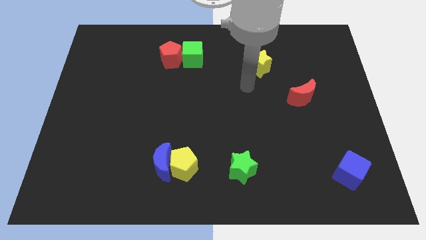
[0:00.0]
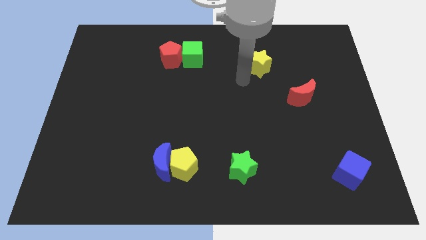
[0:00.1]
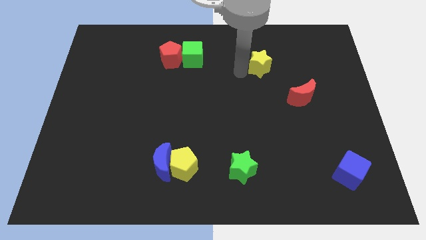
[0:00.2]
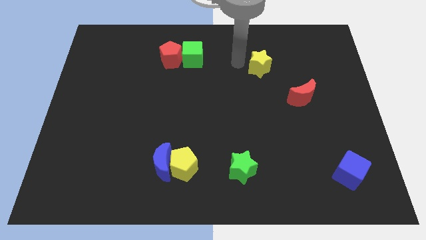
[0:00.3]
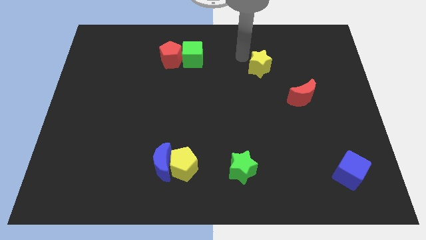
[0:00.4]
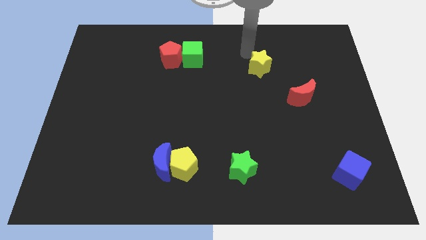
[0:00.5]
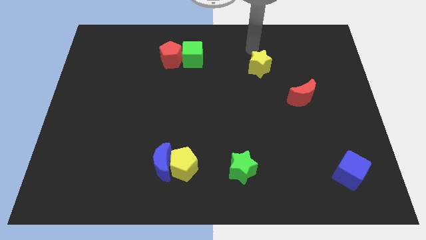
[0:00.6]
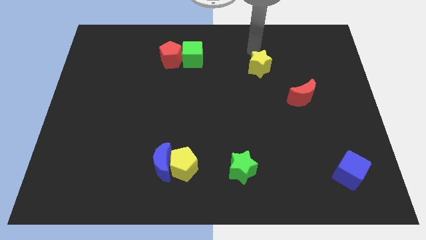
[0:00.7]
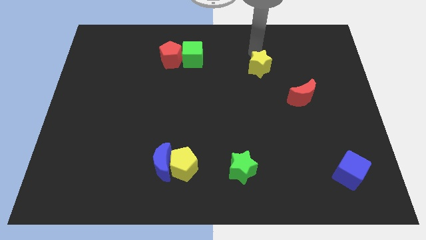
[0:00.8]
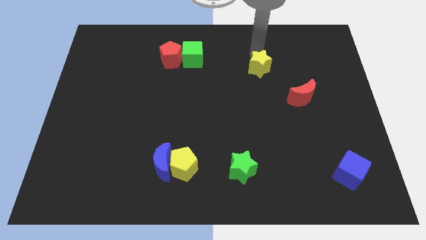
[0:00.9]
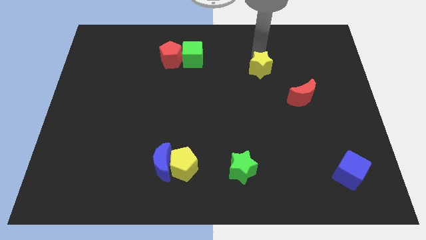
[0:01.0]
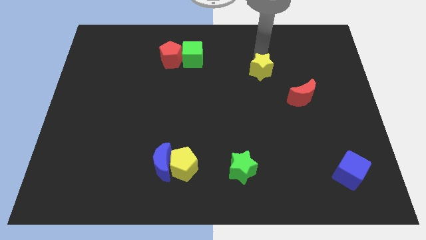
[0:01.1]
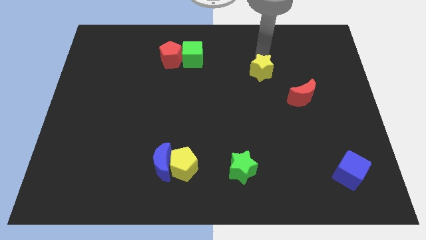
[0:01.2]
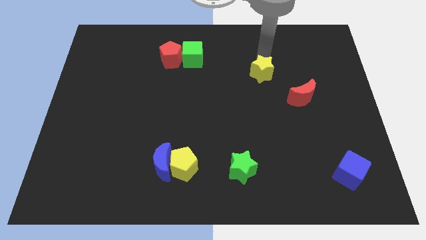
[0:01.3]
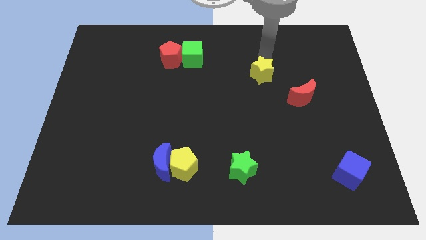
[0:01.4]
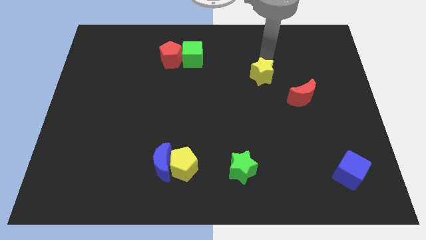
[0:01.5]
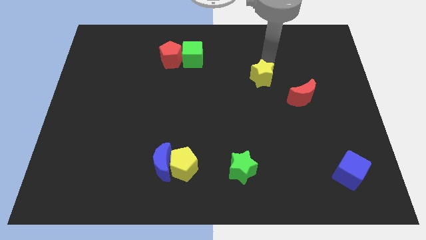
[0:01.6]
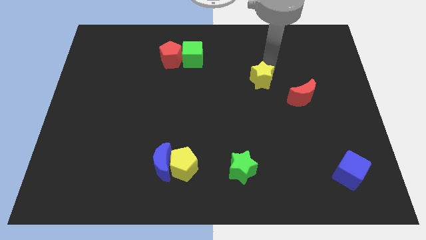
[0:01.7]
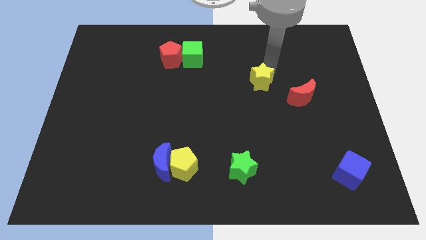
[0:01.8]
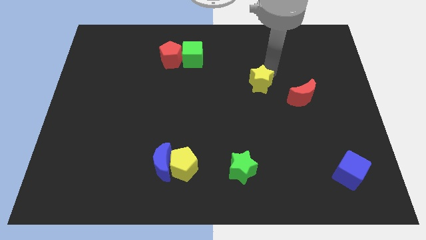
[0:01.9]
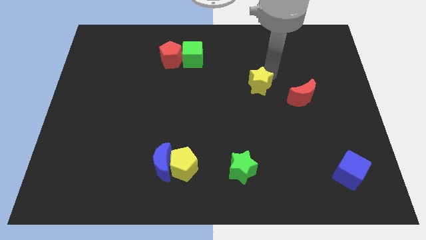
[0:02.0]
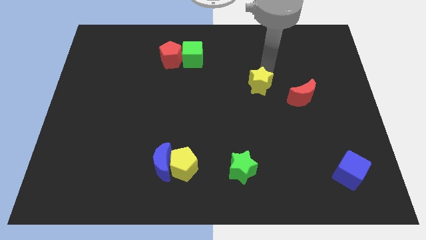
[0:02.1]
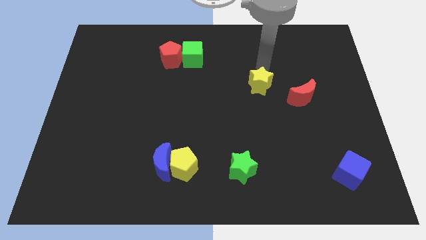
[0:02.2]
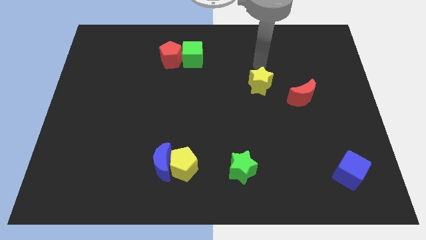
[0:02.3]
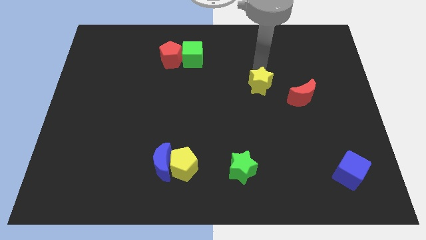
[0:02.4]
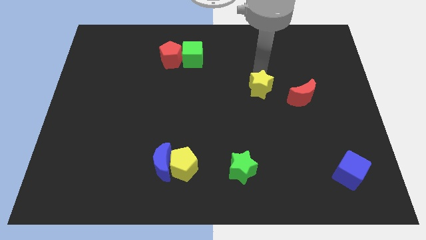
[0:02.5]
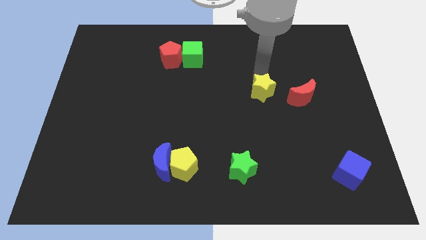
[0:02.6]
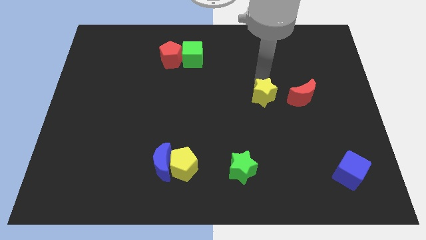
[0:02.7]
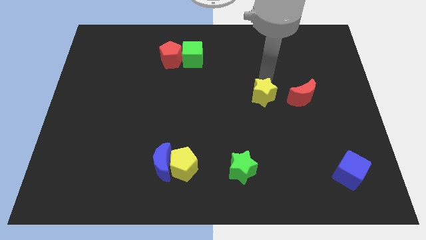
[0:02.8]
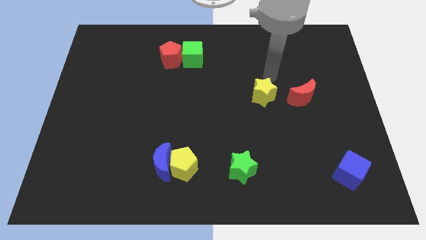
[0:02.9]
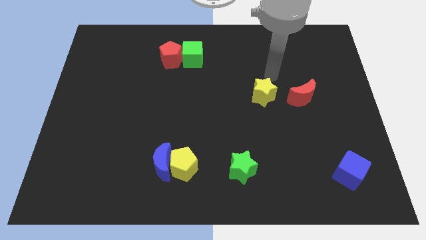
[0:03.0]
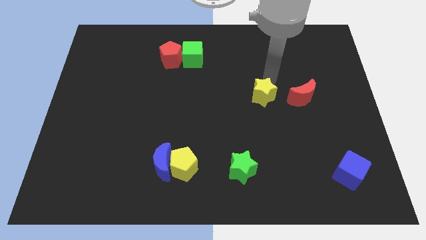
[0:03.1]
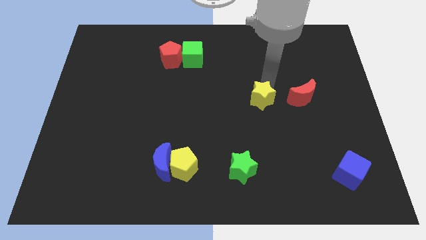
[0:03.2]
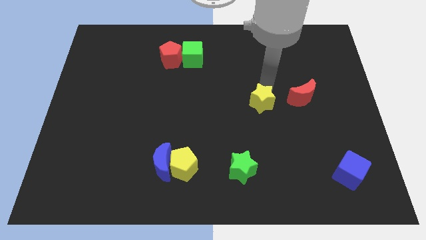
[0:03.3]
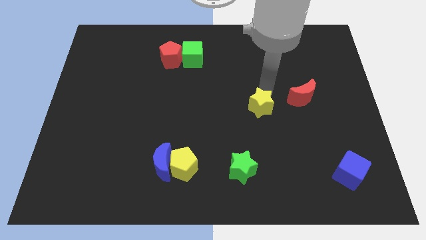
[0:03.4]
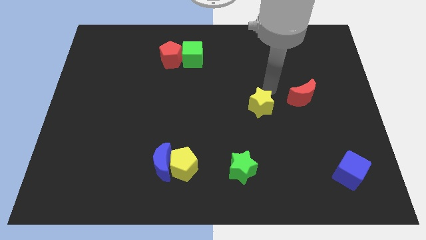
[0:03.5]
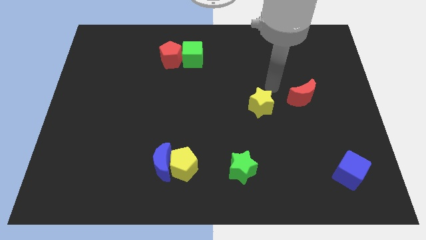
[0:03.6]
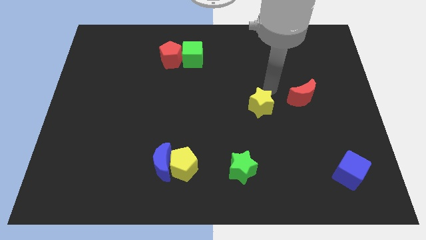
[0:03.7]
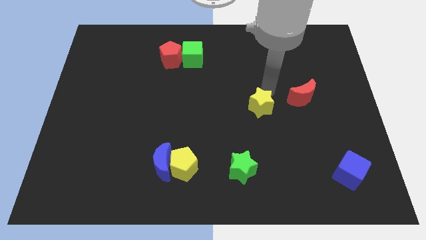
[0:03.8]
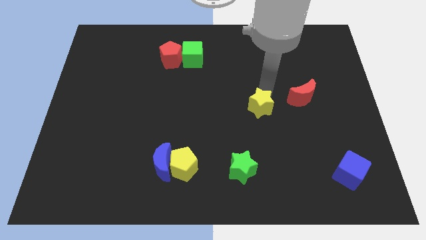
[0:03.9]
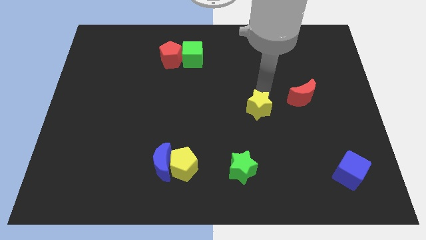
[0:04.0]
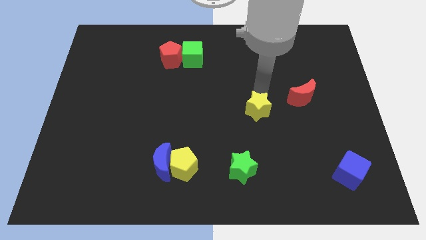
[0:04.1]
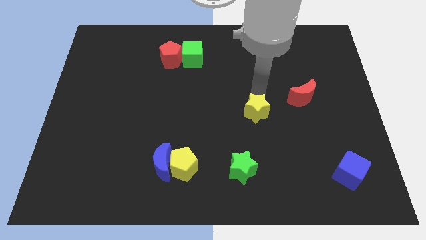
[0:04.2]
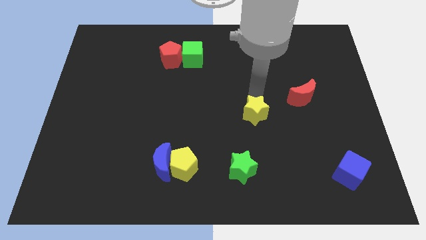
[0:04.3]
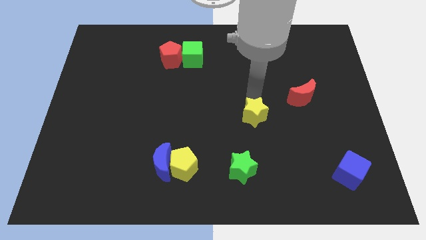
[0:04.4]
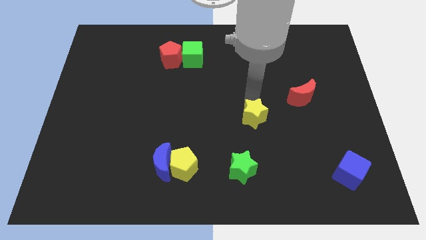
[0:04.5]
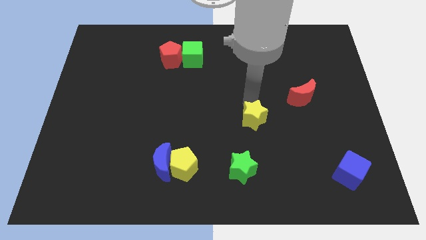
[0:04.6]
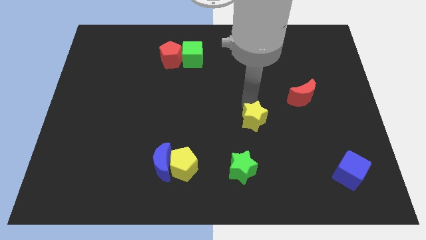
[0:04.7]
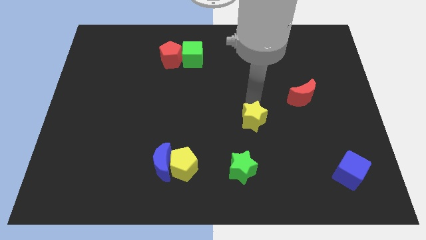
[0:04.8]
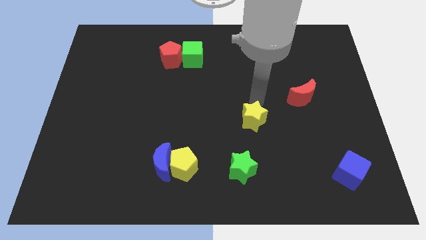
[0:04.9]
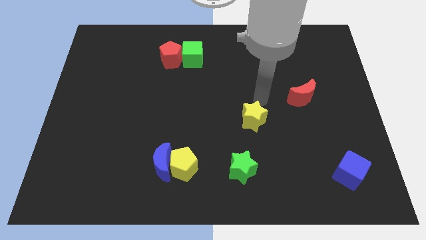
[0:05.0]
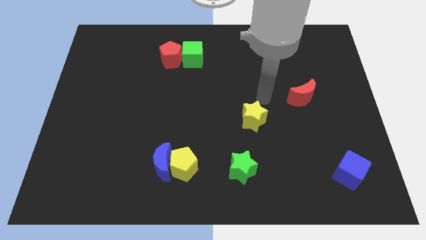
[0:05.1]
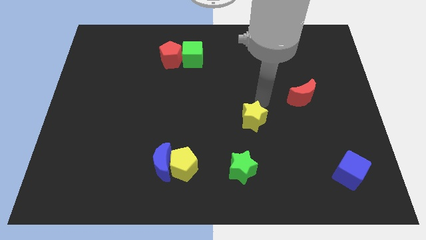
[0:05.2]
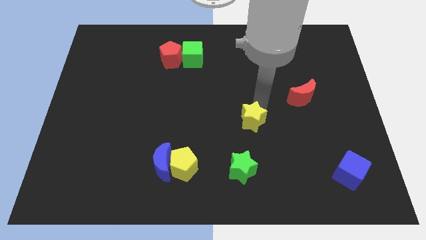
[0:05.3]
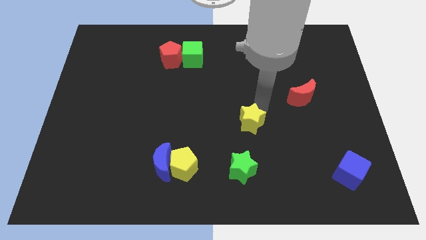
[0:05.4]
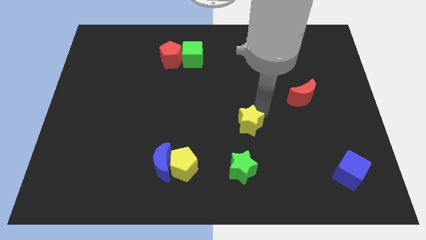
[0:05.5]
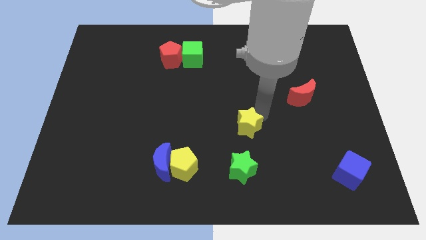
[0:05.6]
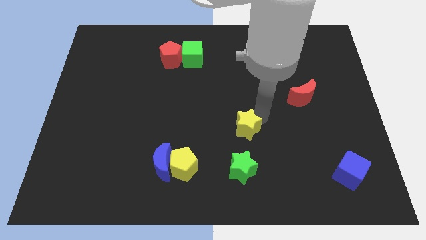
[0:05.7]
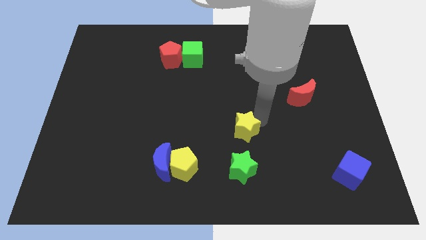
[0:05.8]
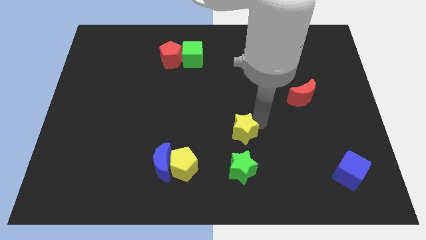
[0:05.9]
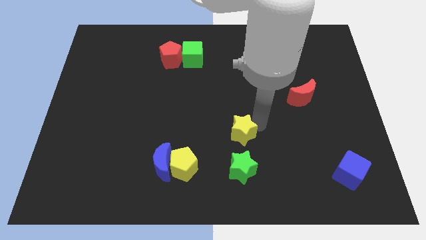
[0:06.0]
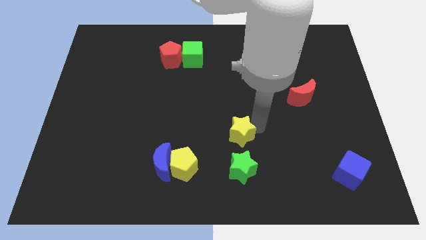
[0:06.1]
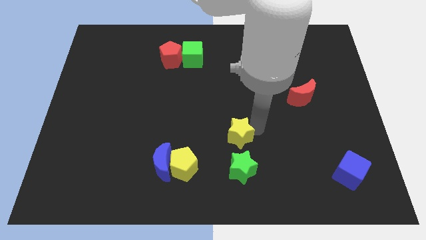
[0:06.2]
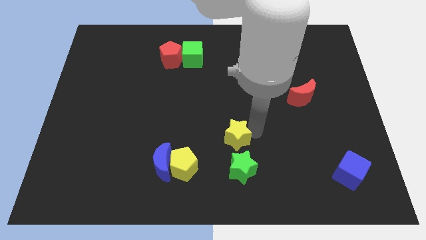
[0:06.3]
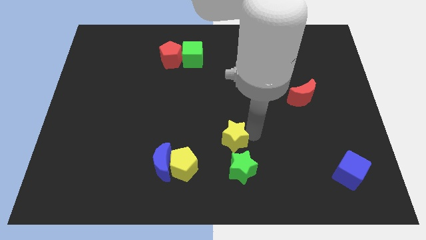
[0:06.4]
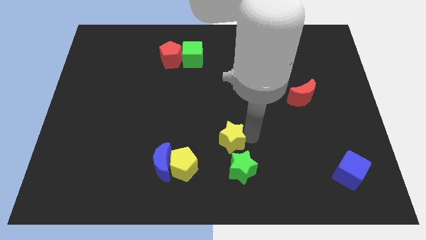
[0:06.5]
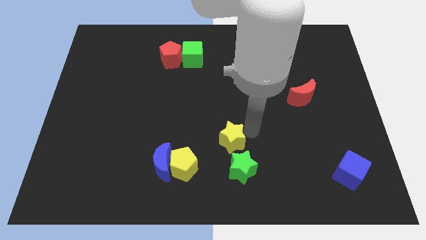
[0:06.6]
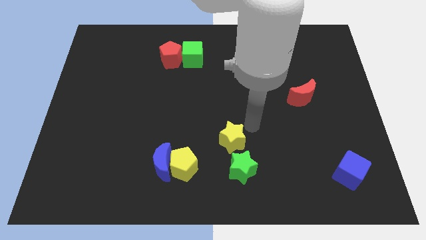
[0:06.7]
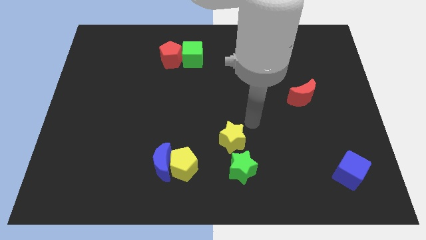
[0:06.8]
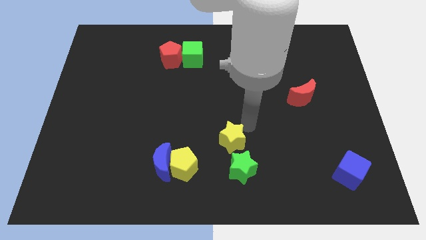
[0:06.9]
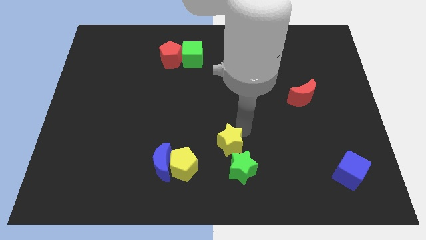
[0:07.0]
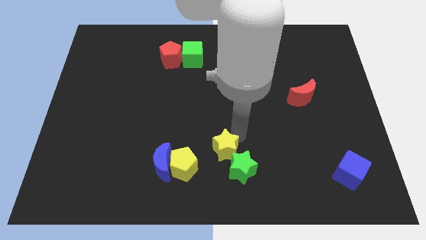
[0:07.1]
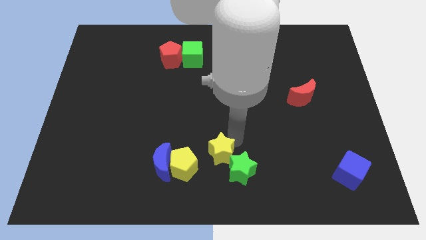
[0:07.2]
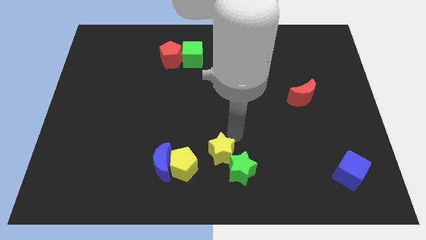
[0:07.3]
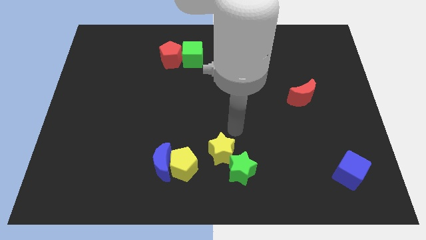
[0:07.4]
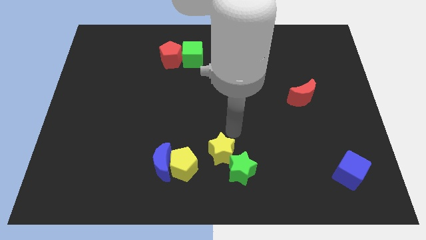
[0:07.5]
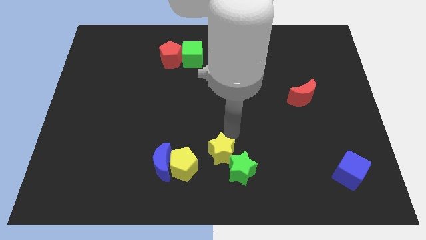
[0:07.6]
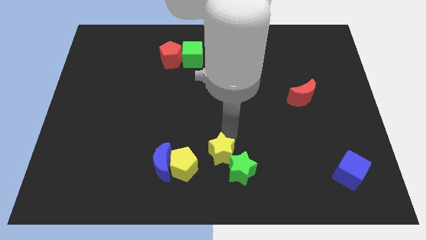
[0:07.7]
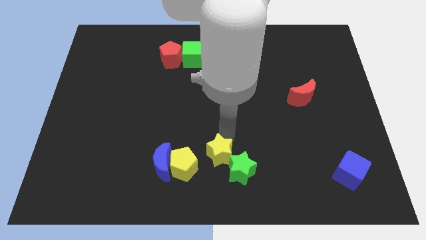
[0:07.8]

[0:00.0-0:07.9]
move the yellow star to the bottom side
